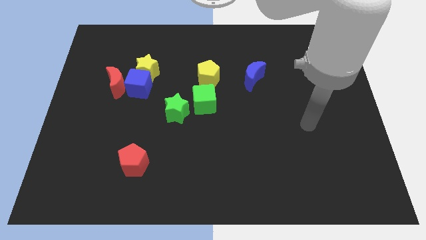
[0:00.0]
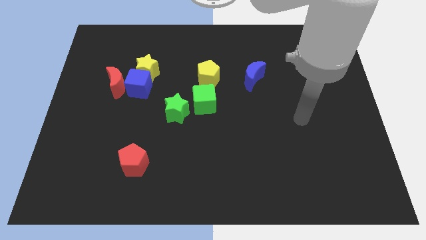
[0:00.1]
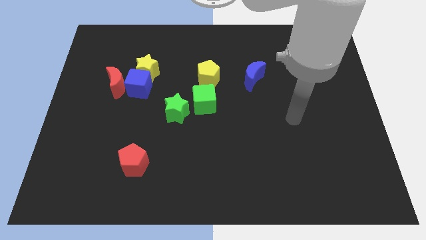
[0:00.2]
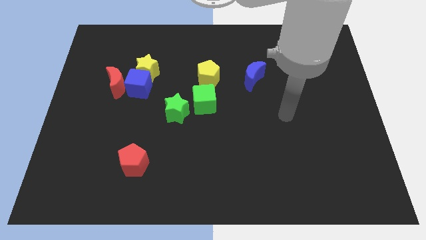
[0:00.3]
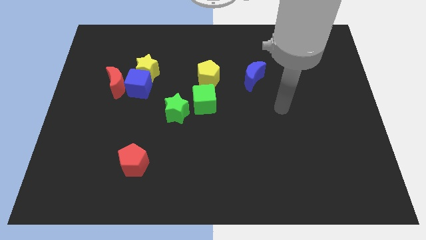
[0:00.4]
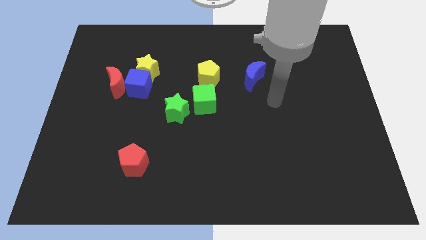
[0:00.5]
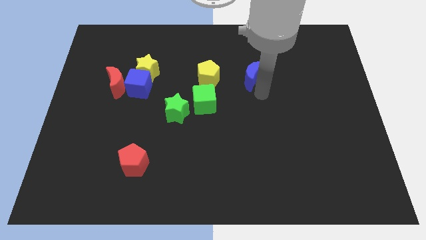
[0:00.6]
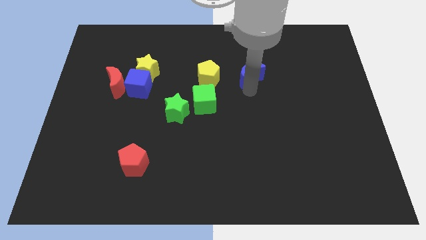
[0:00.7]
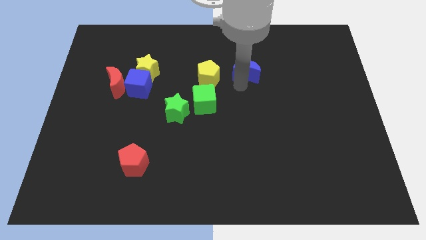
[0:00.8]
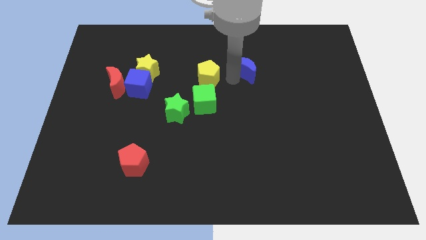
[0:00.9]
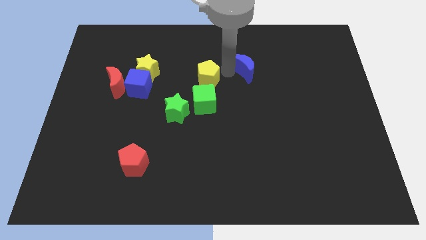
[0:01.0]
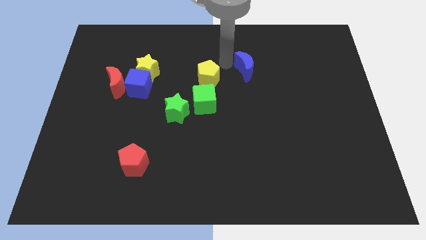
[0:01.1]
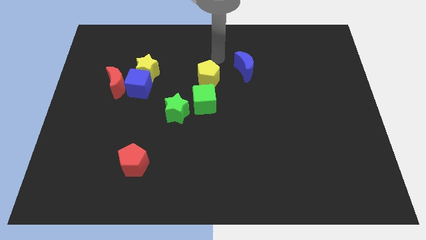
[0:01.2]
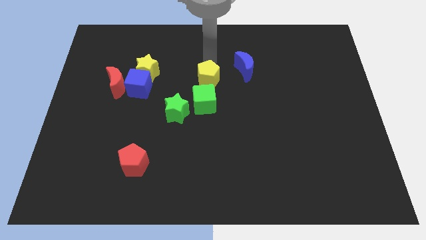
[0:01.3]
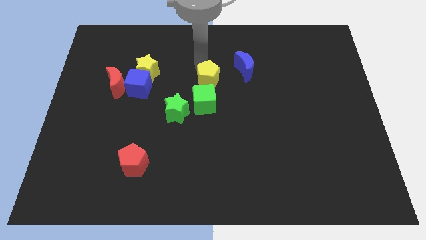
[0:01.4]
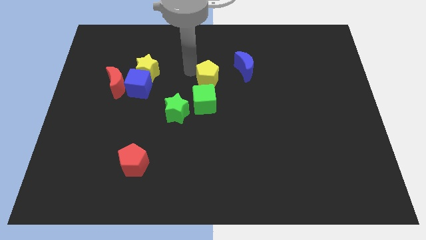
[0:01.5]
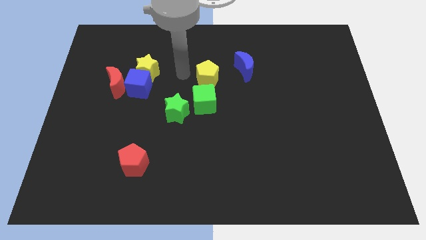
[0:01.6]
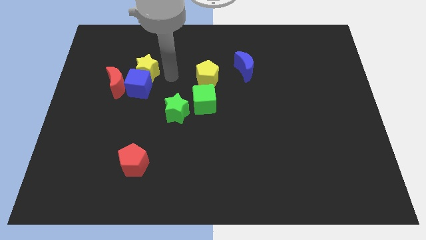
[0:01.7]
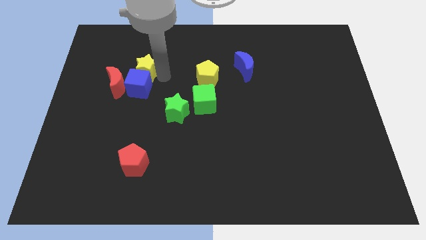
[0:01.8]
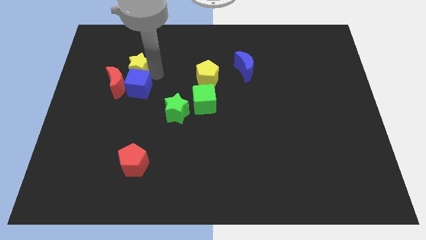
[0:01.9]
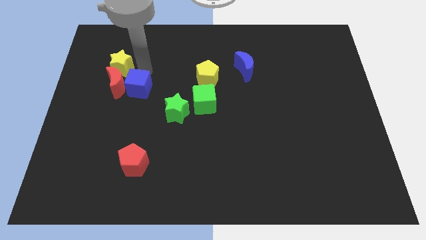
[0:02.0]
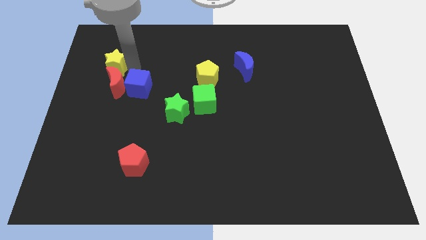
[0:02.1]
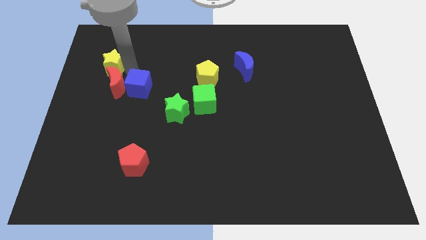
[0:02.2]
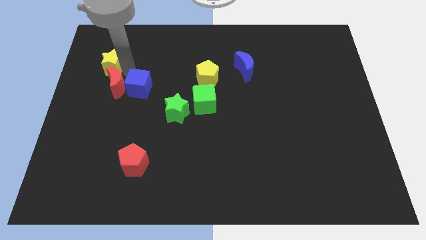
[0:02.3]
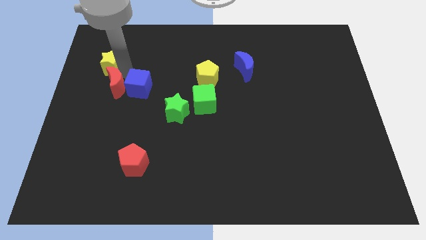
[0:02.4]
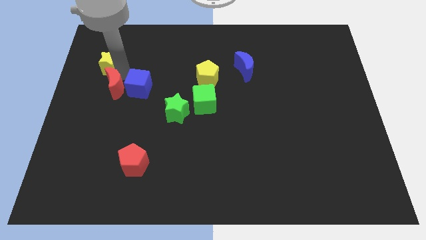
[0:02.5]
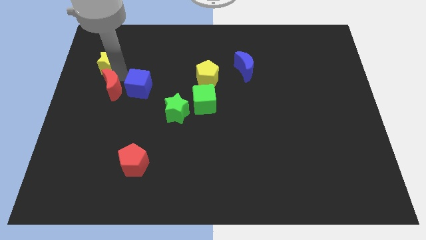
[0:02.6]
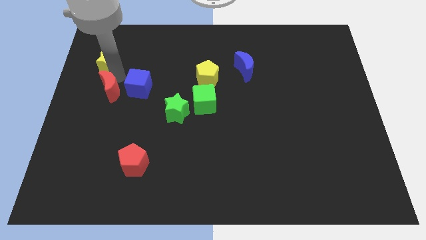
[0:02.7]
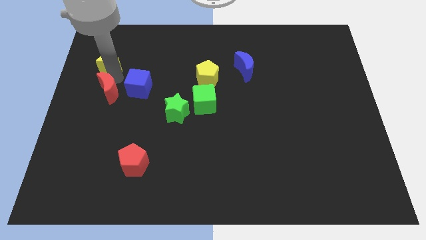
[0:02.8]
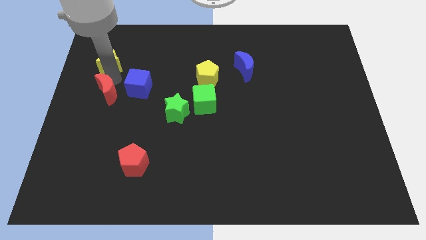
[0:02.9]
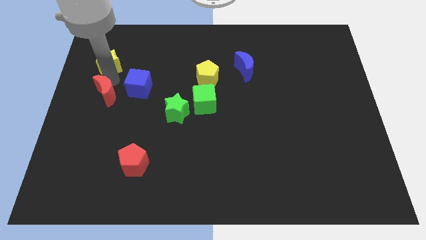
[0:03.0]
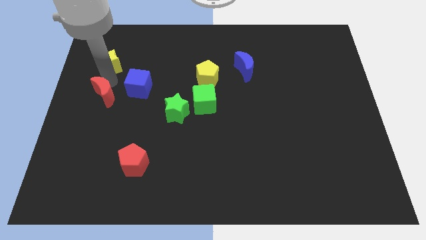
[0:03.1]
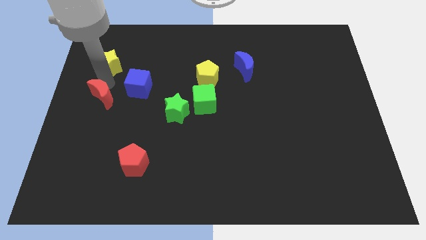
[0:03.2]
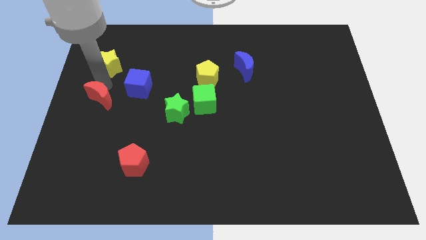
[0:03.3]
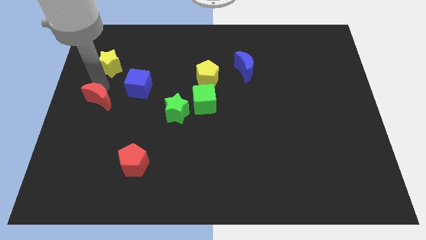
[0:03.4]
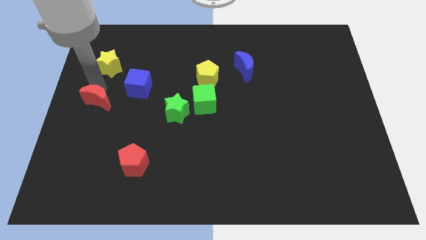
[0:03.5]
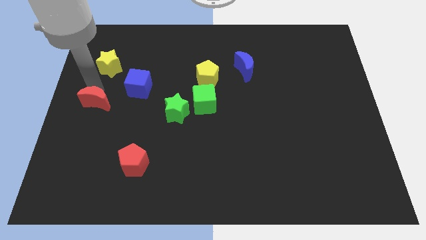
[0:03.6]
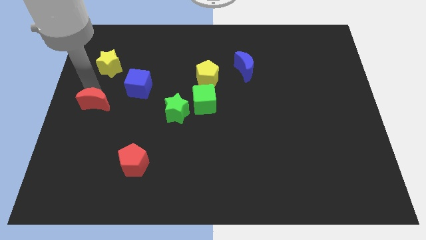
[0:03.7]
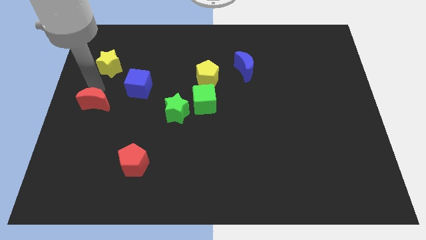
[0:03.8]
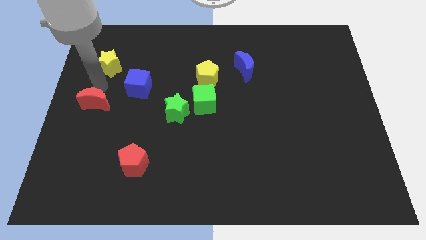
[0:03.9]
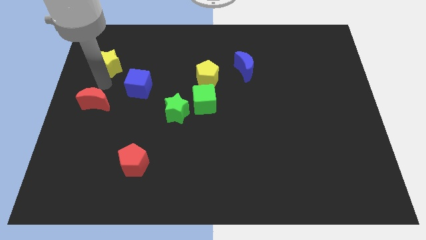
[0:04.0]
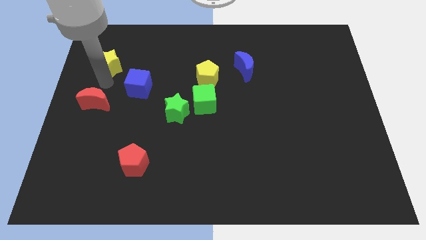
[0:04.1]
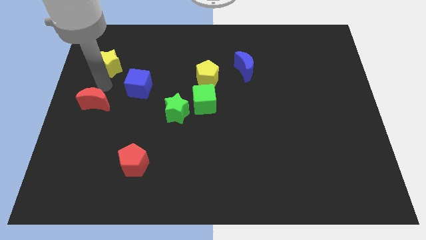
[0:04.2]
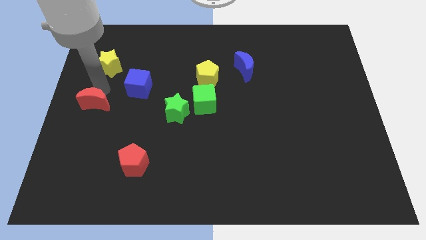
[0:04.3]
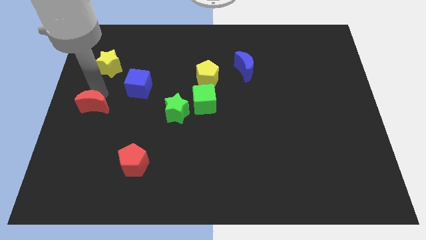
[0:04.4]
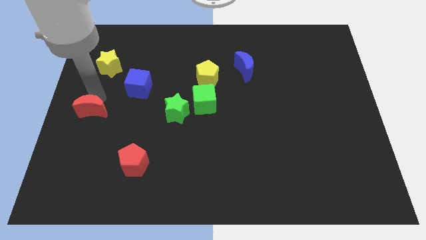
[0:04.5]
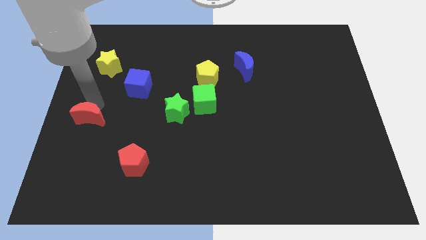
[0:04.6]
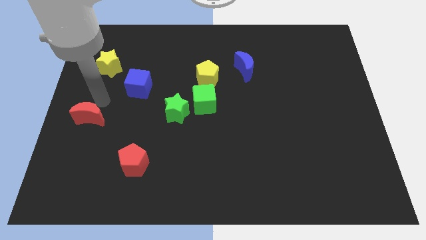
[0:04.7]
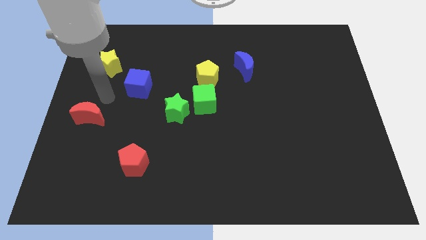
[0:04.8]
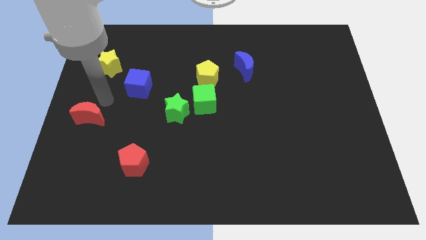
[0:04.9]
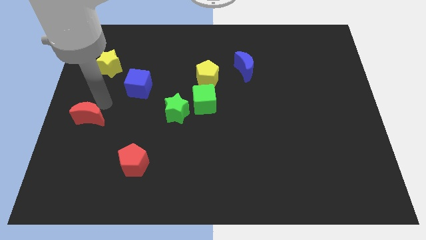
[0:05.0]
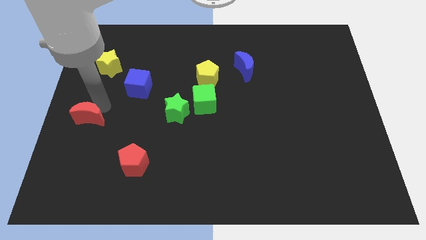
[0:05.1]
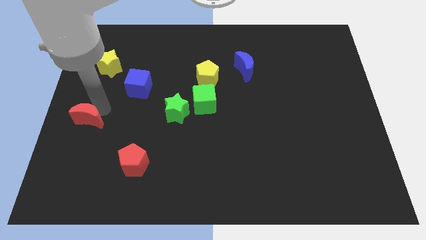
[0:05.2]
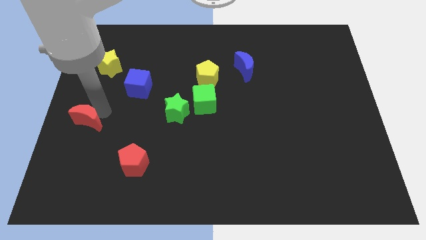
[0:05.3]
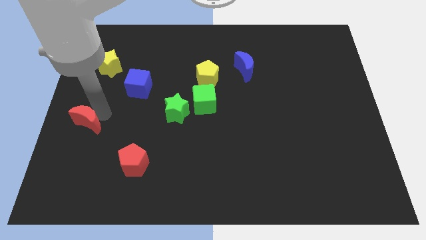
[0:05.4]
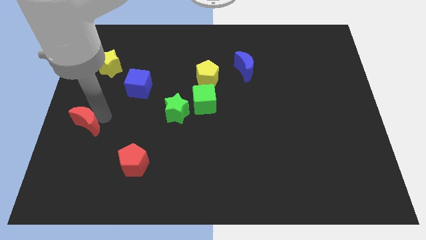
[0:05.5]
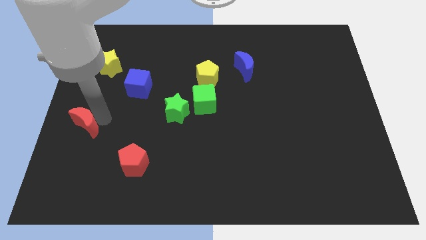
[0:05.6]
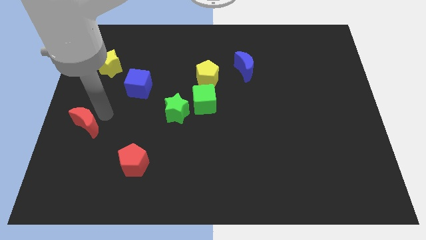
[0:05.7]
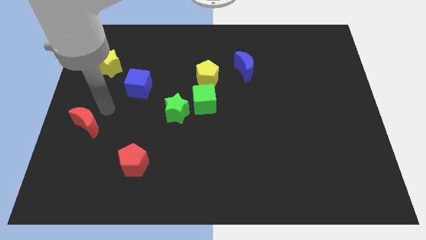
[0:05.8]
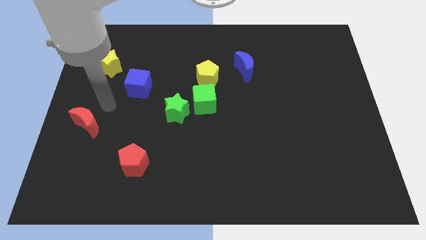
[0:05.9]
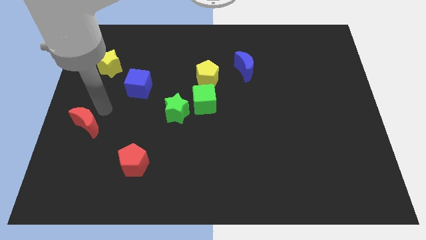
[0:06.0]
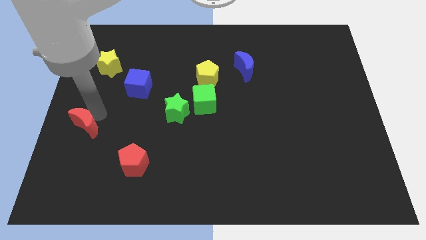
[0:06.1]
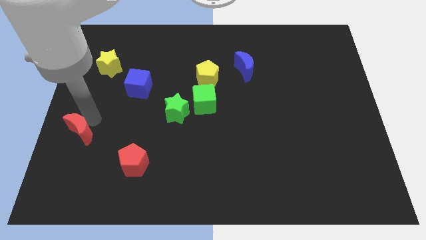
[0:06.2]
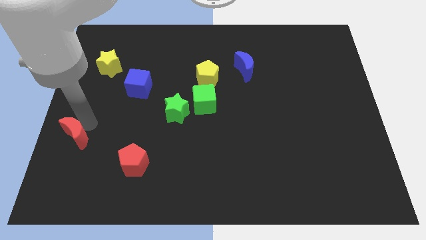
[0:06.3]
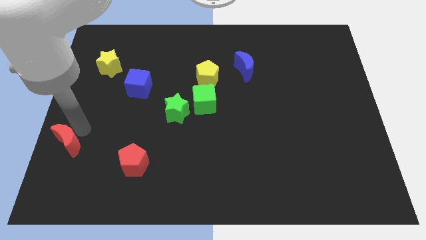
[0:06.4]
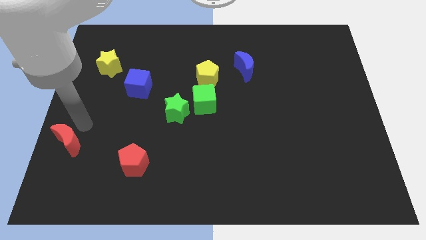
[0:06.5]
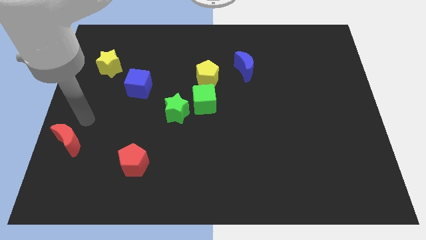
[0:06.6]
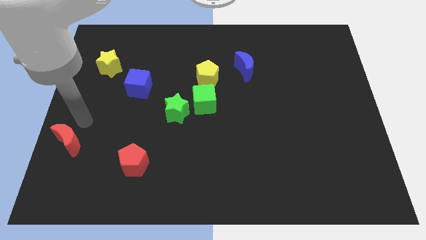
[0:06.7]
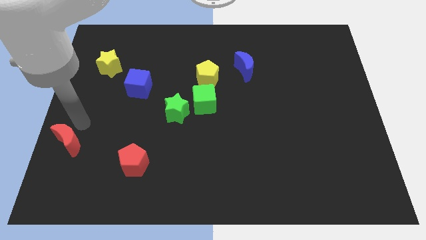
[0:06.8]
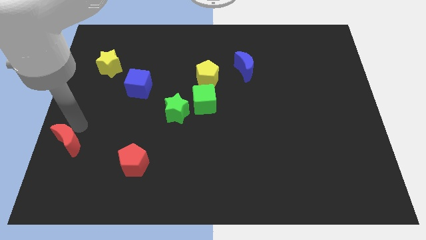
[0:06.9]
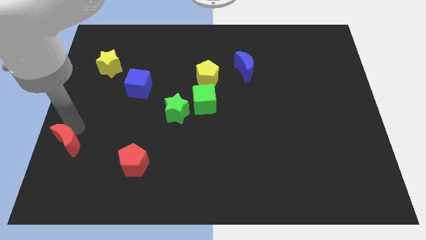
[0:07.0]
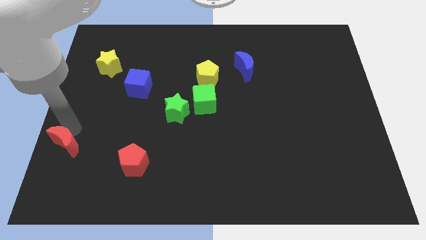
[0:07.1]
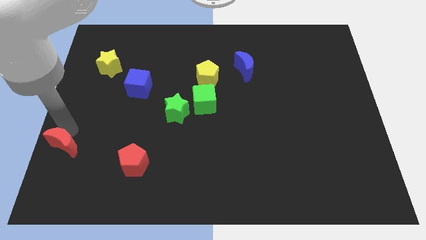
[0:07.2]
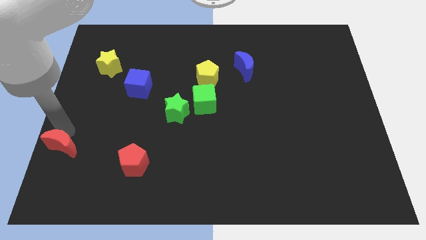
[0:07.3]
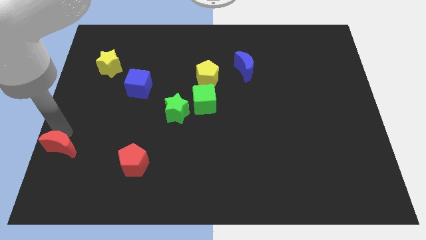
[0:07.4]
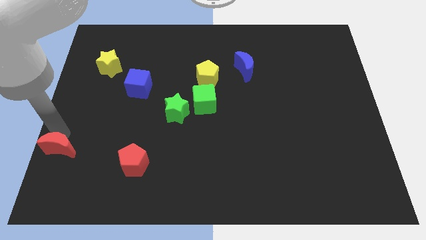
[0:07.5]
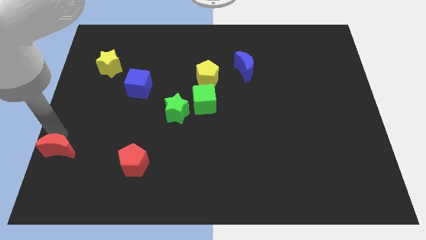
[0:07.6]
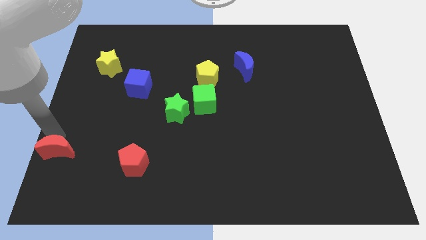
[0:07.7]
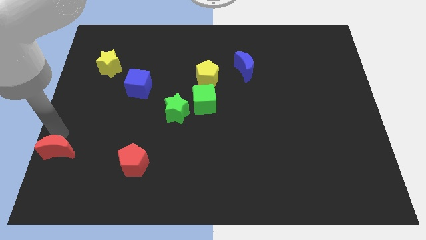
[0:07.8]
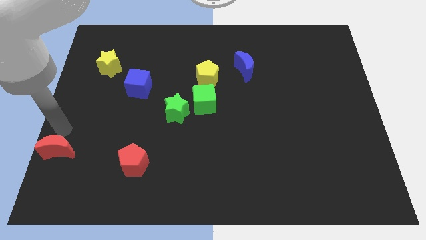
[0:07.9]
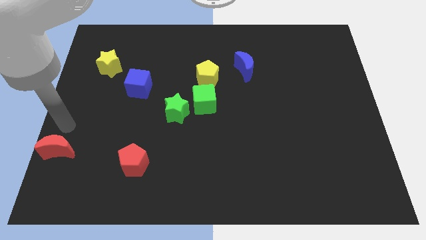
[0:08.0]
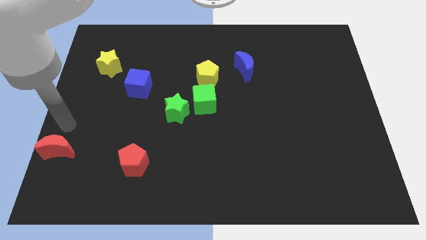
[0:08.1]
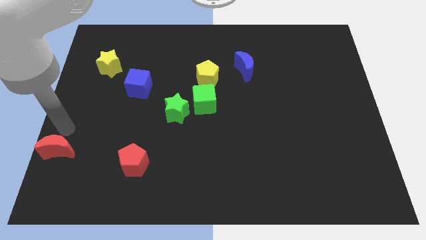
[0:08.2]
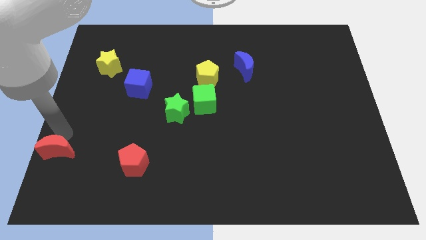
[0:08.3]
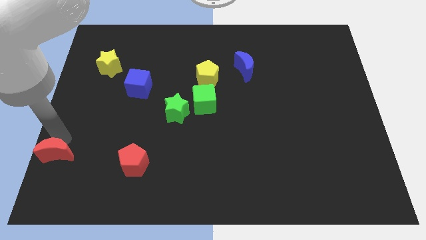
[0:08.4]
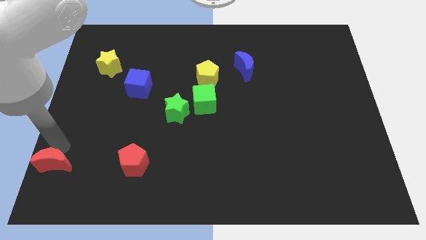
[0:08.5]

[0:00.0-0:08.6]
slide the red moon to the bottom left
